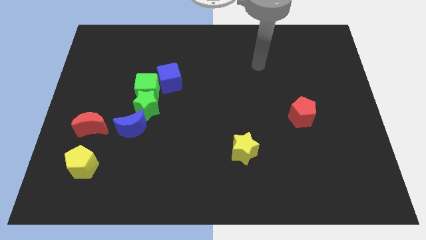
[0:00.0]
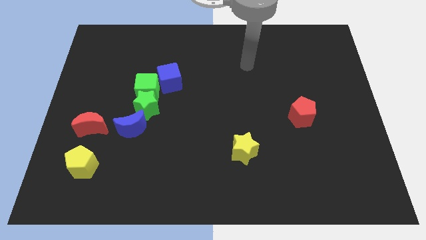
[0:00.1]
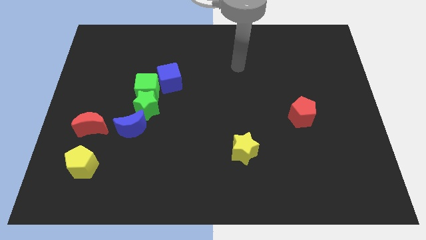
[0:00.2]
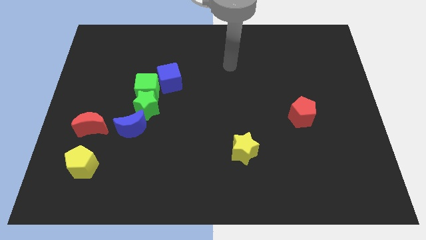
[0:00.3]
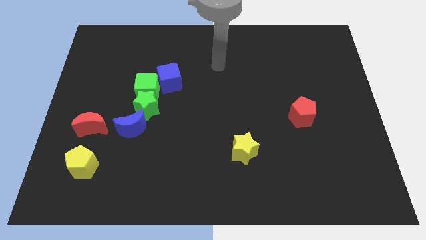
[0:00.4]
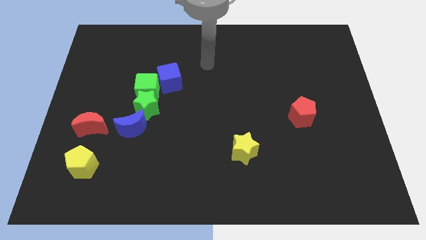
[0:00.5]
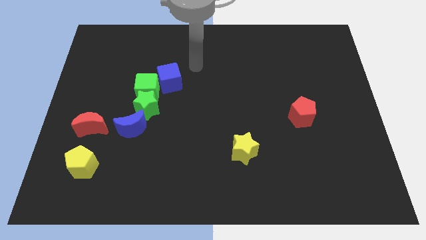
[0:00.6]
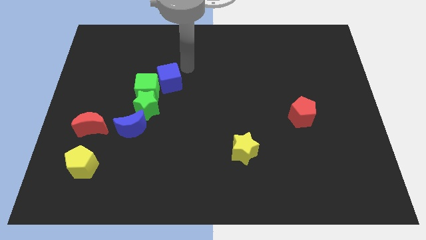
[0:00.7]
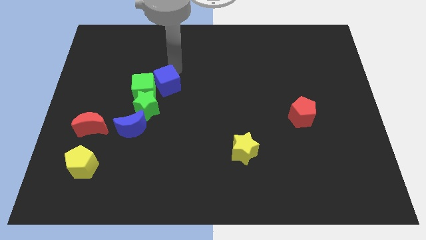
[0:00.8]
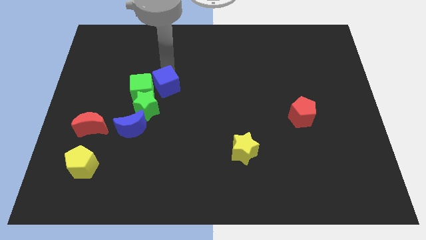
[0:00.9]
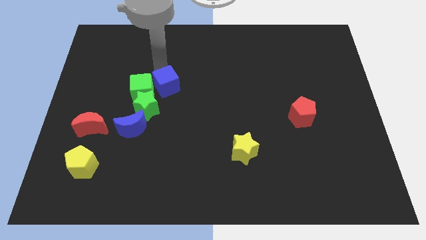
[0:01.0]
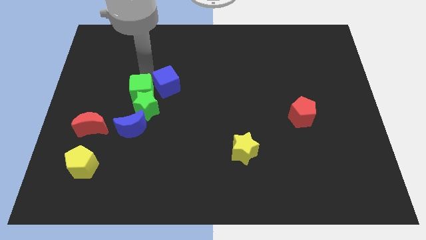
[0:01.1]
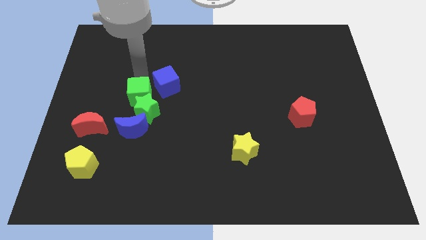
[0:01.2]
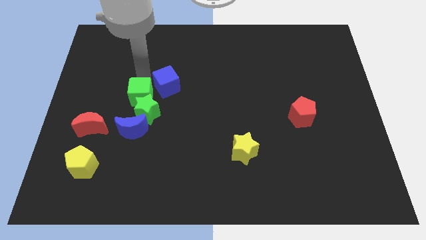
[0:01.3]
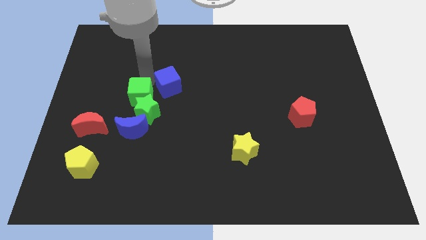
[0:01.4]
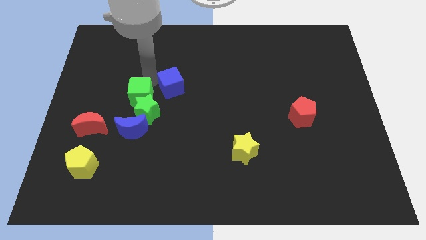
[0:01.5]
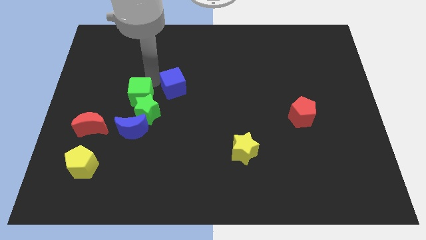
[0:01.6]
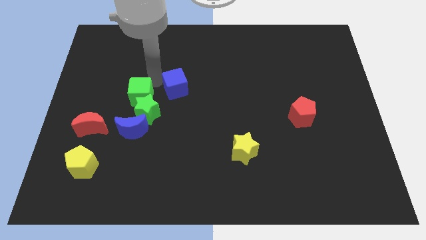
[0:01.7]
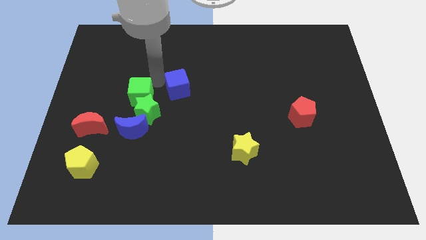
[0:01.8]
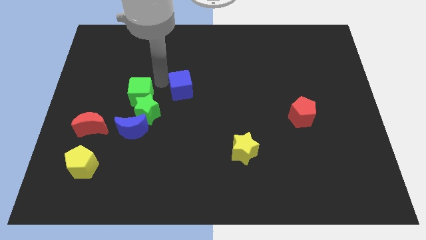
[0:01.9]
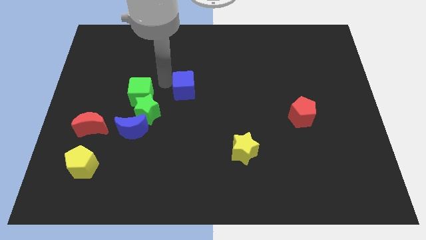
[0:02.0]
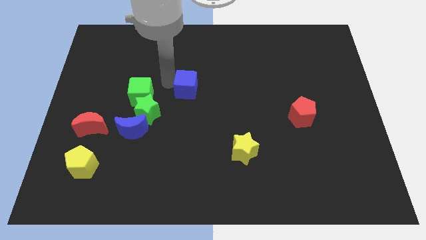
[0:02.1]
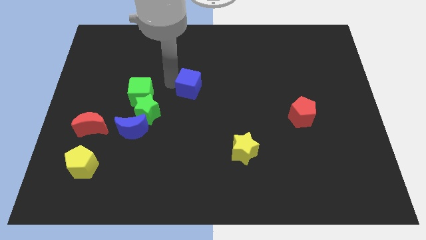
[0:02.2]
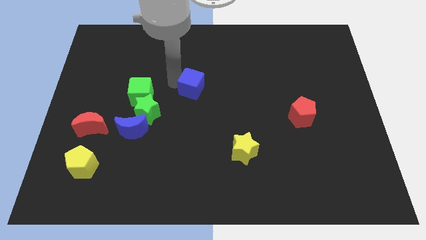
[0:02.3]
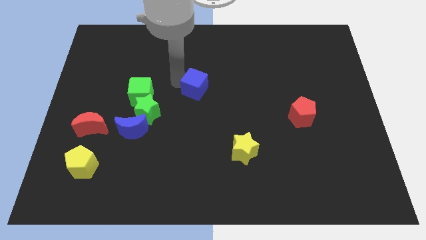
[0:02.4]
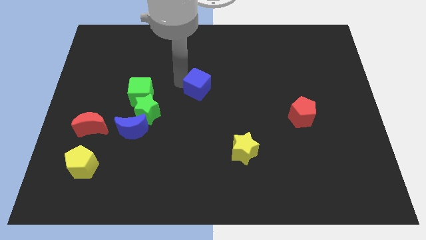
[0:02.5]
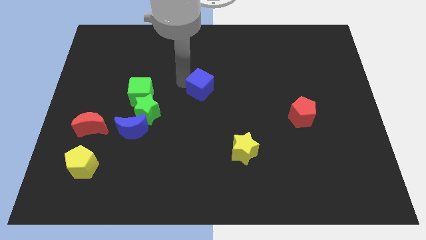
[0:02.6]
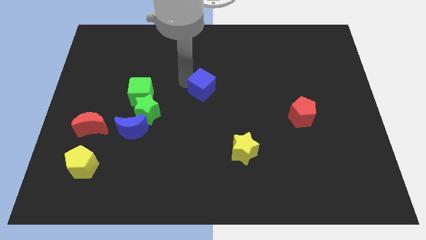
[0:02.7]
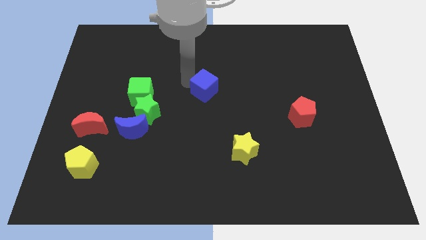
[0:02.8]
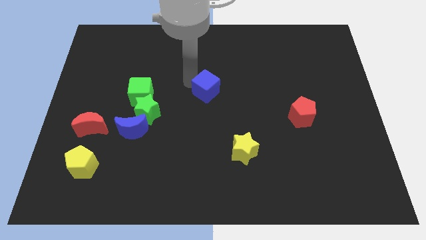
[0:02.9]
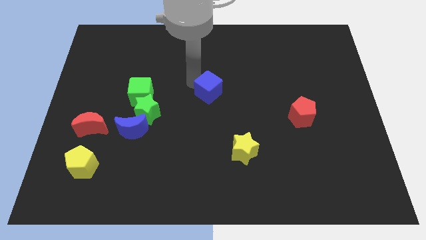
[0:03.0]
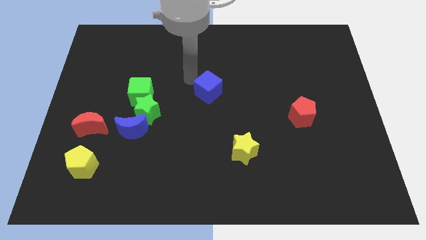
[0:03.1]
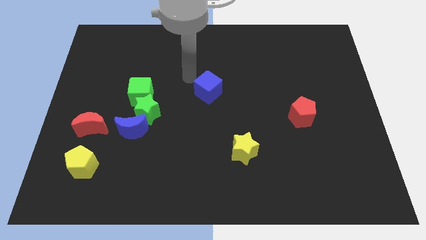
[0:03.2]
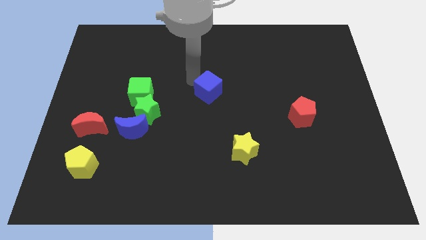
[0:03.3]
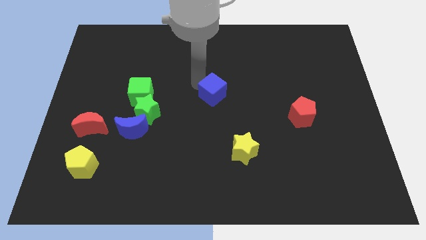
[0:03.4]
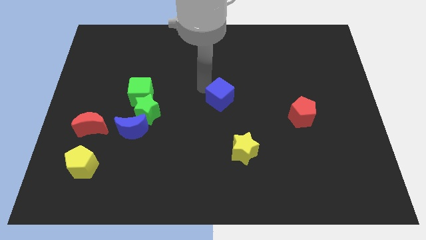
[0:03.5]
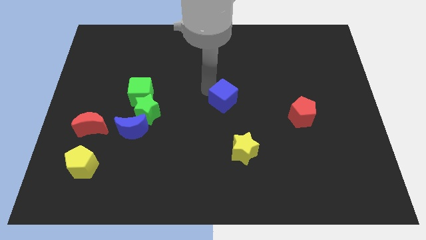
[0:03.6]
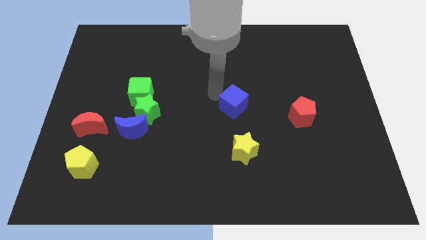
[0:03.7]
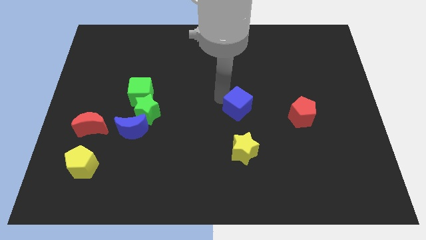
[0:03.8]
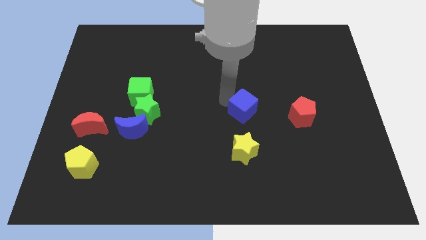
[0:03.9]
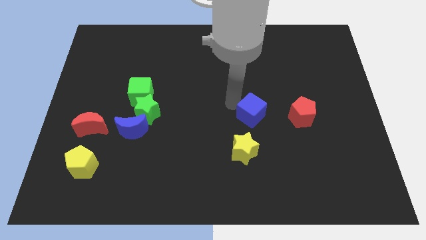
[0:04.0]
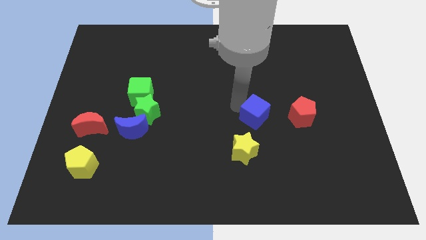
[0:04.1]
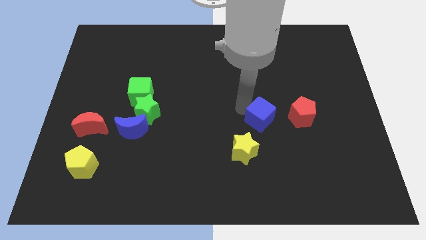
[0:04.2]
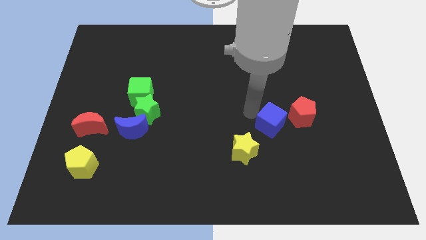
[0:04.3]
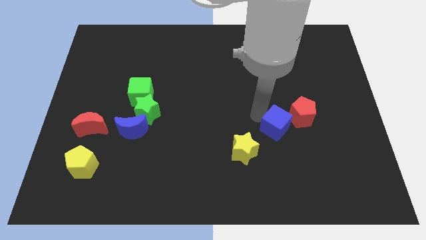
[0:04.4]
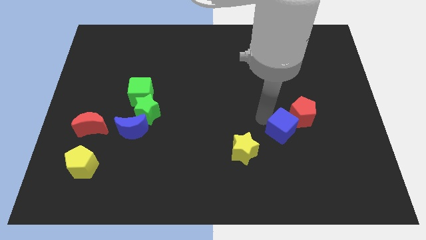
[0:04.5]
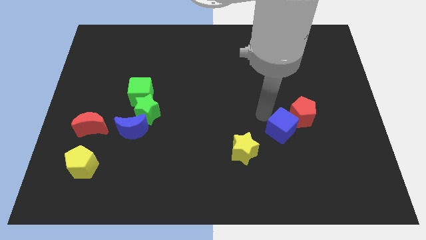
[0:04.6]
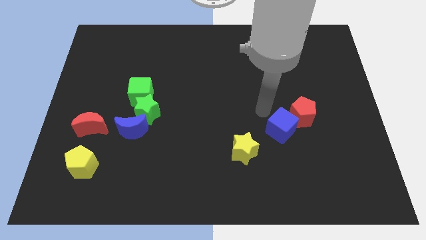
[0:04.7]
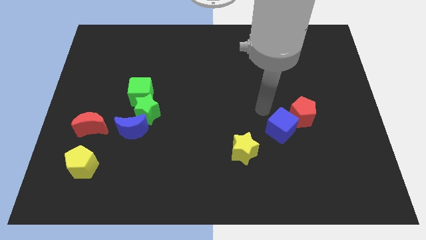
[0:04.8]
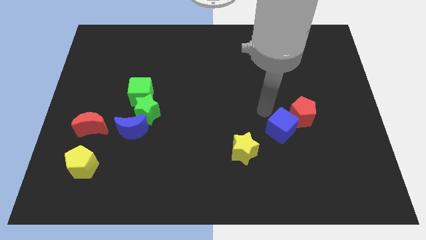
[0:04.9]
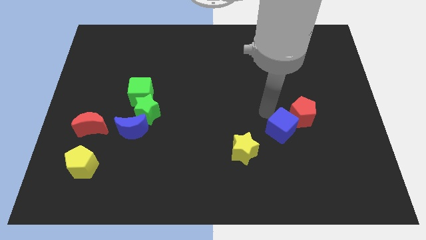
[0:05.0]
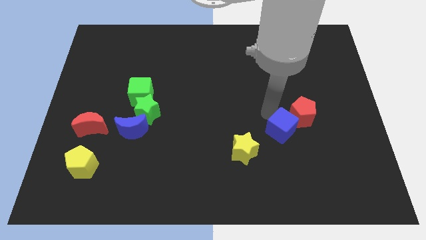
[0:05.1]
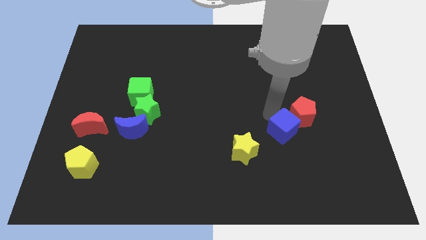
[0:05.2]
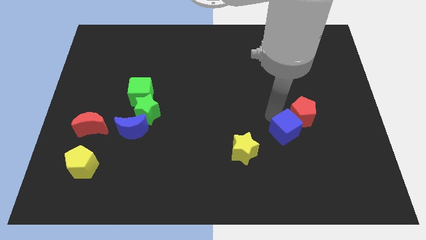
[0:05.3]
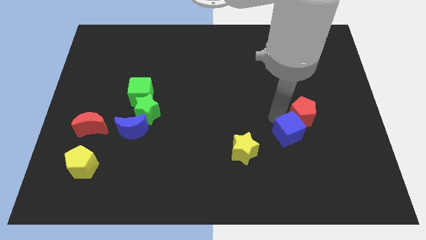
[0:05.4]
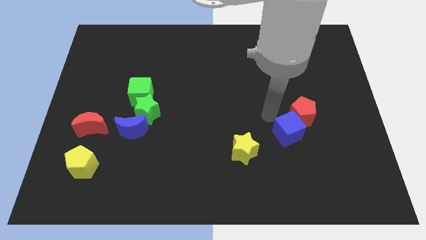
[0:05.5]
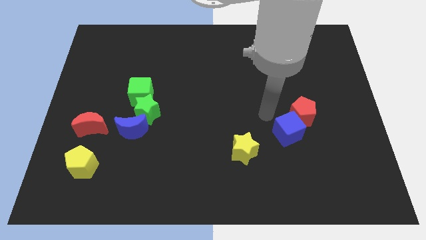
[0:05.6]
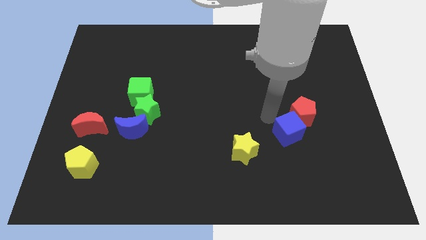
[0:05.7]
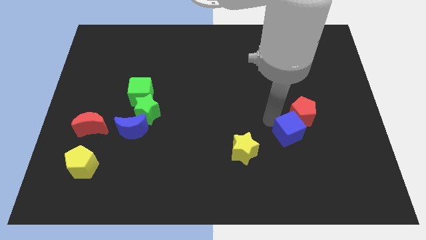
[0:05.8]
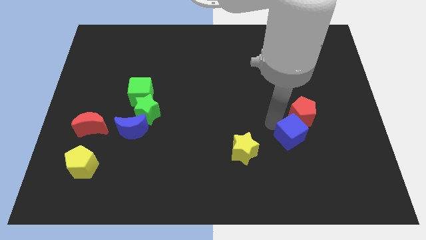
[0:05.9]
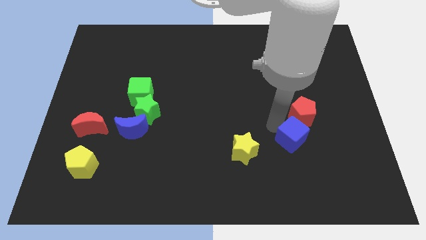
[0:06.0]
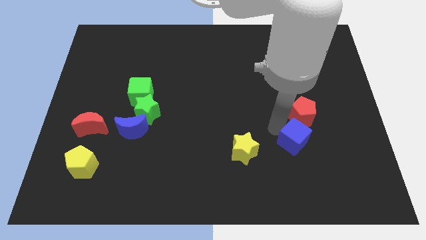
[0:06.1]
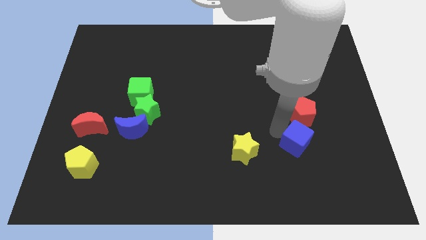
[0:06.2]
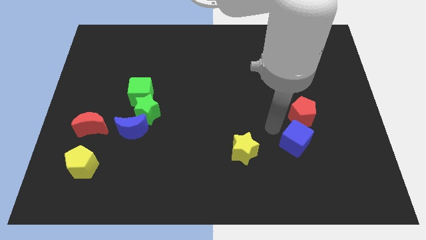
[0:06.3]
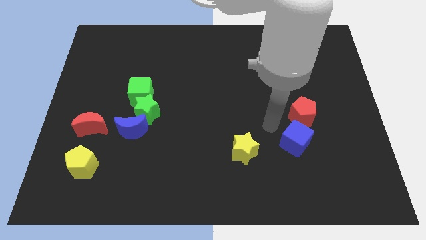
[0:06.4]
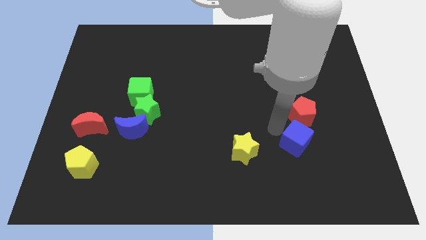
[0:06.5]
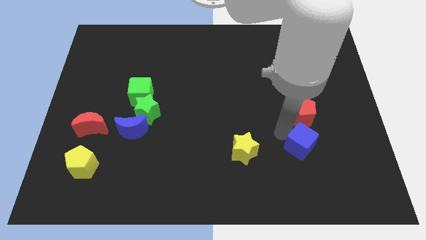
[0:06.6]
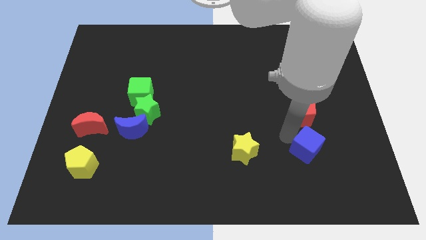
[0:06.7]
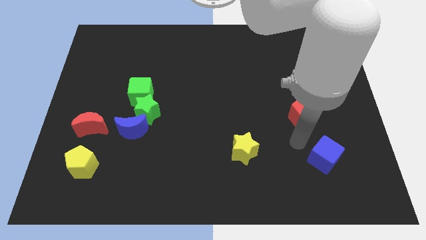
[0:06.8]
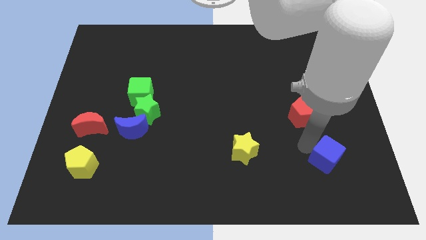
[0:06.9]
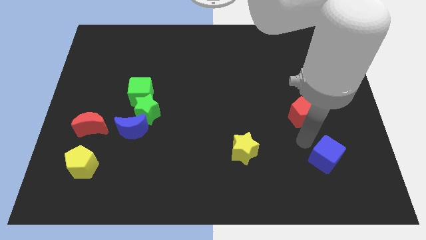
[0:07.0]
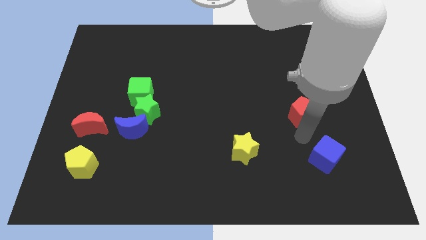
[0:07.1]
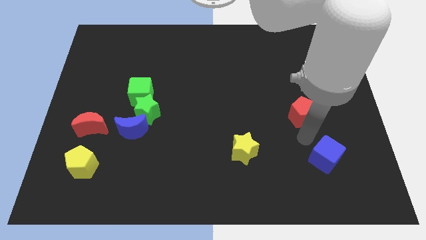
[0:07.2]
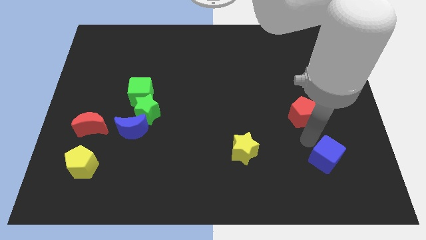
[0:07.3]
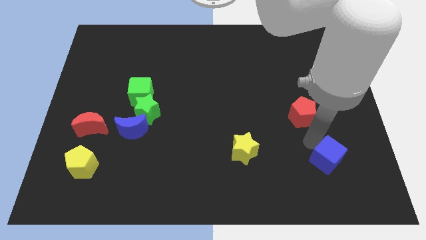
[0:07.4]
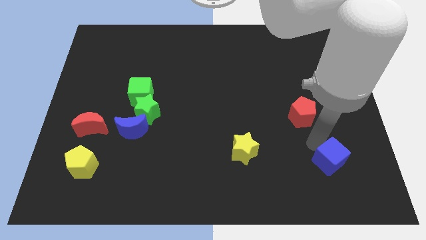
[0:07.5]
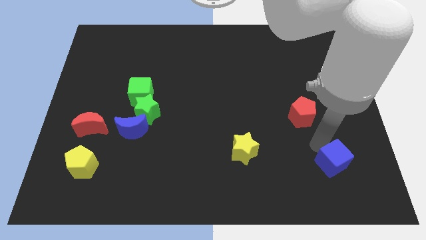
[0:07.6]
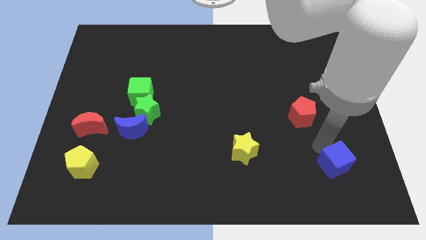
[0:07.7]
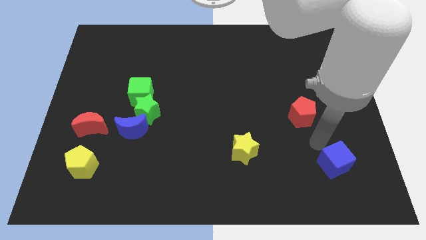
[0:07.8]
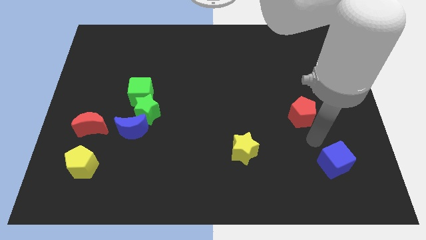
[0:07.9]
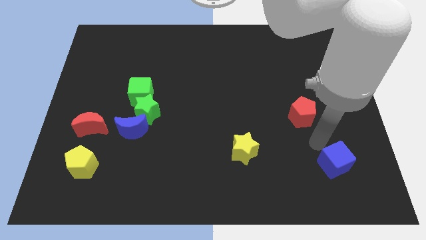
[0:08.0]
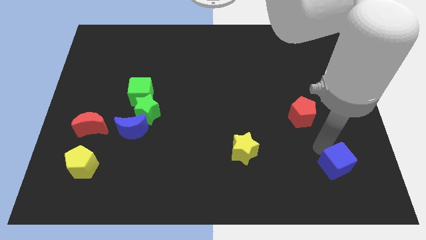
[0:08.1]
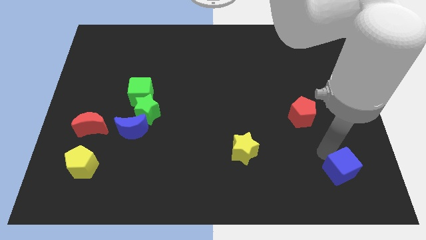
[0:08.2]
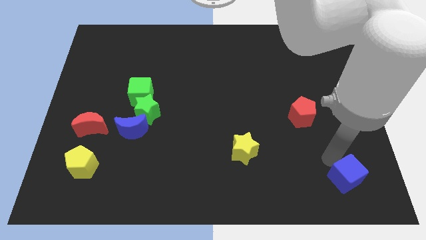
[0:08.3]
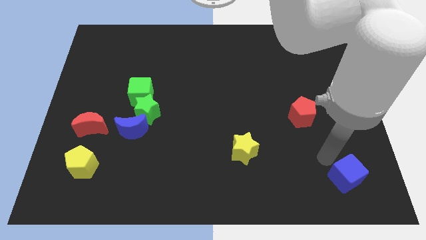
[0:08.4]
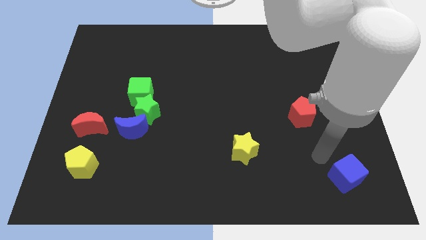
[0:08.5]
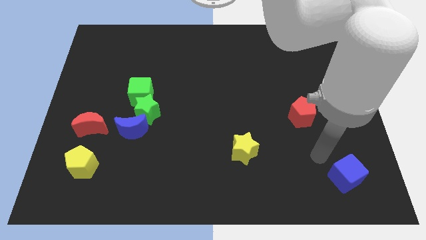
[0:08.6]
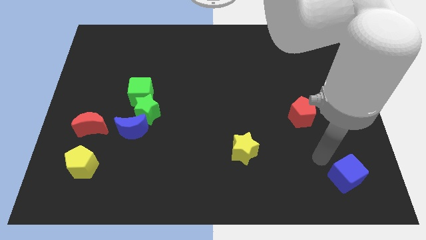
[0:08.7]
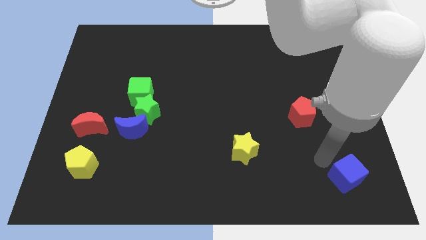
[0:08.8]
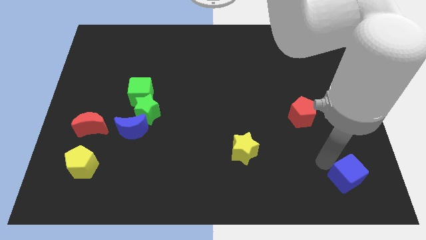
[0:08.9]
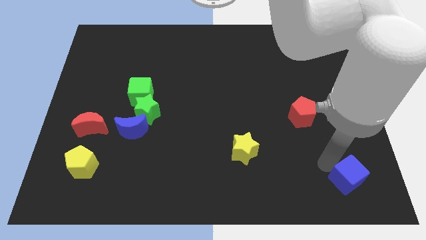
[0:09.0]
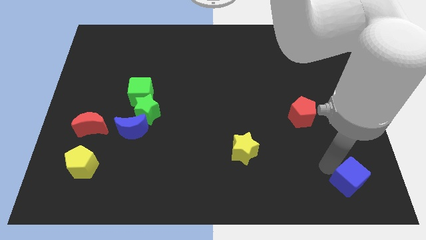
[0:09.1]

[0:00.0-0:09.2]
put the blue cube to the bottom right
